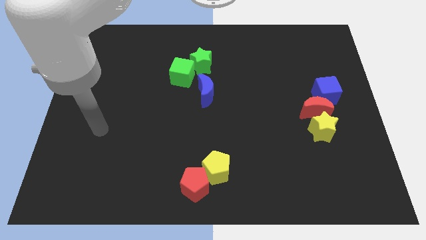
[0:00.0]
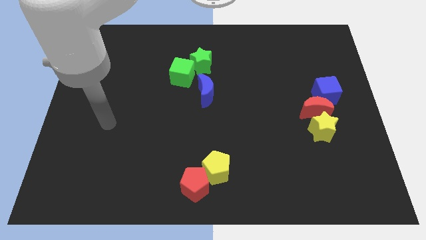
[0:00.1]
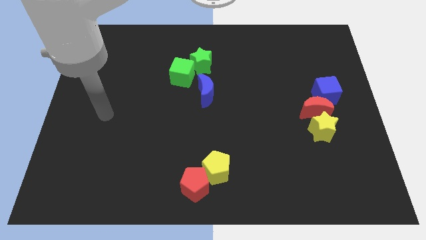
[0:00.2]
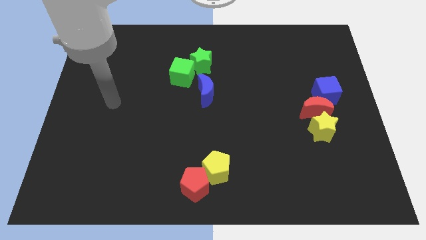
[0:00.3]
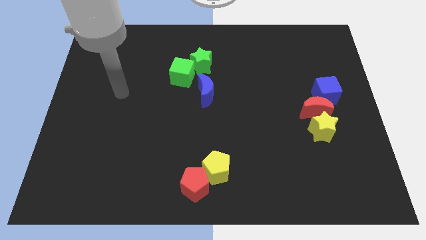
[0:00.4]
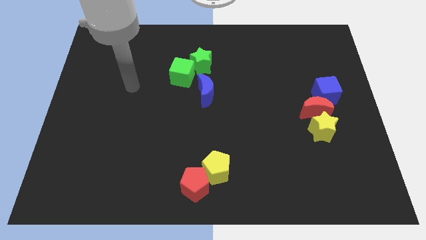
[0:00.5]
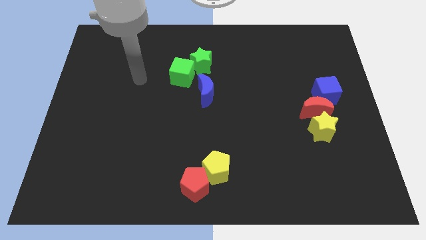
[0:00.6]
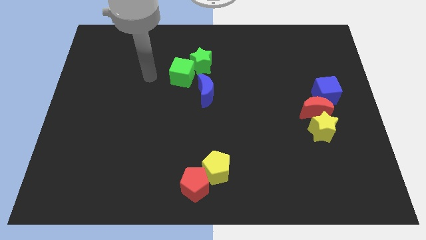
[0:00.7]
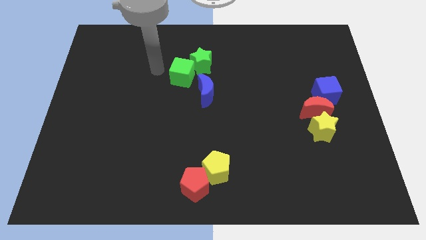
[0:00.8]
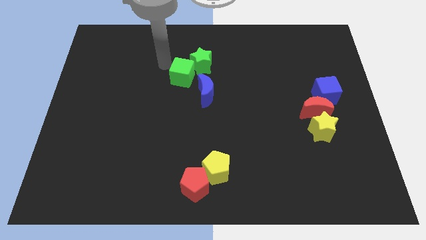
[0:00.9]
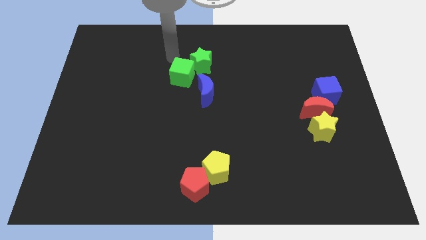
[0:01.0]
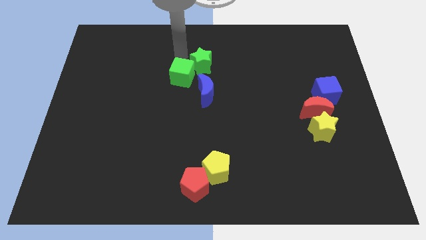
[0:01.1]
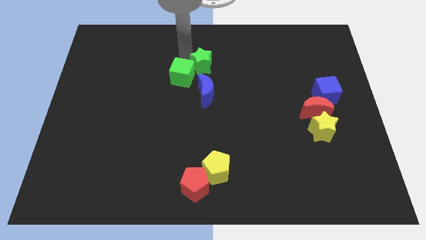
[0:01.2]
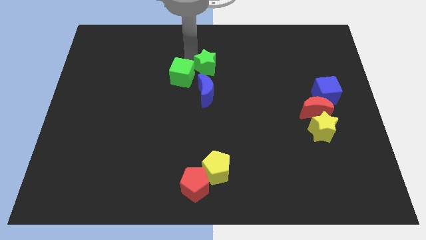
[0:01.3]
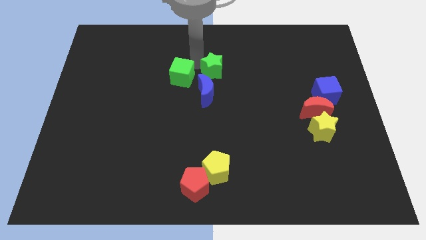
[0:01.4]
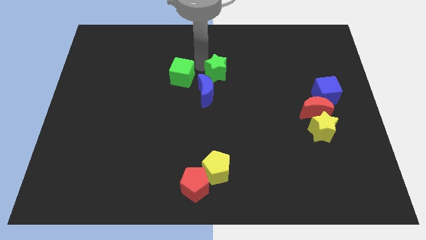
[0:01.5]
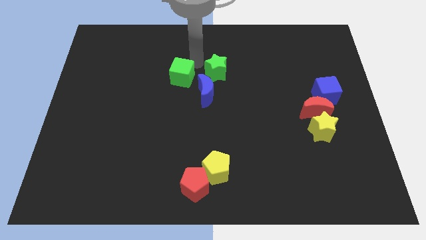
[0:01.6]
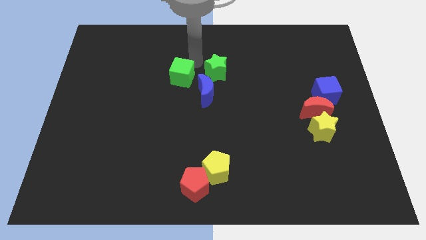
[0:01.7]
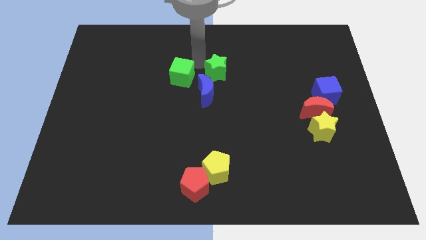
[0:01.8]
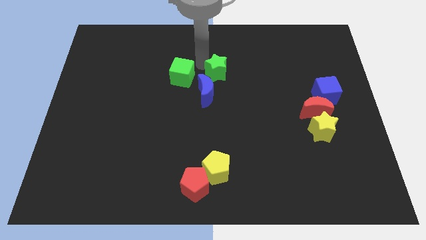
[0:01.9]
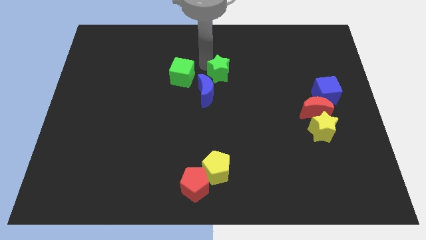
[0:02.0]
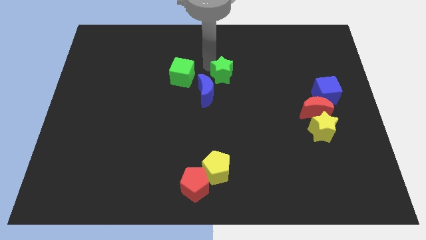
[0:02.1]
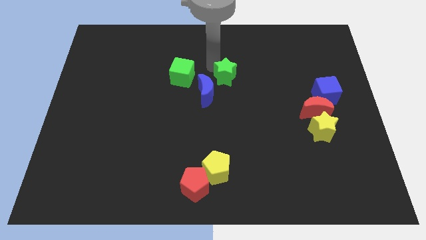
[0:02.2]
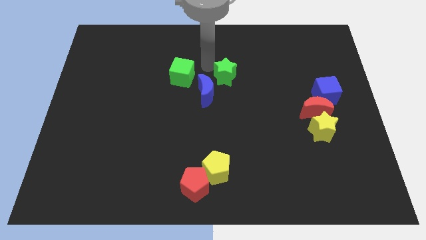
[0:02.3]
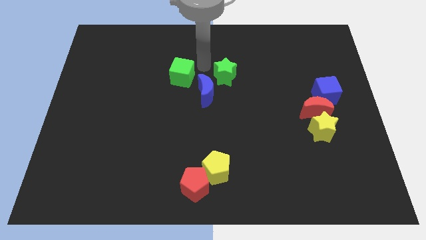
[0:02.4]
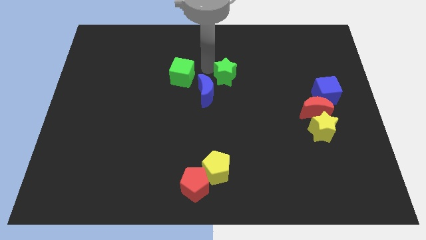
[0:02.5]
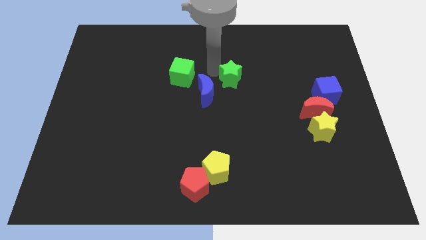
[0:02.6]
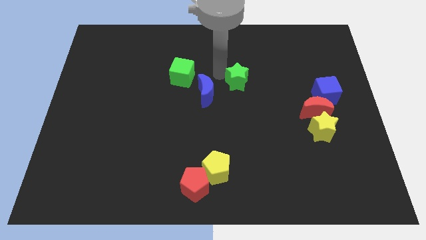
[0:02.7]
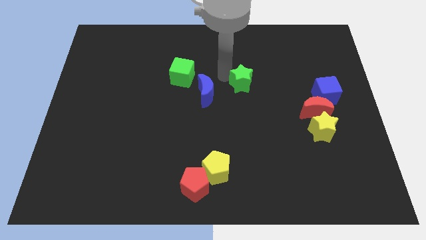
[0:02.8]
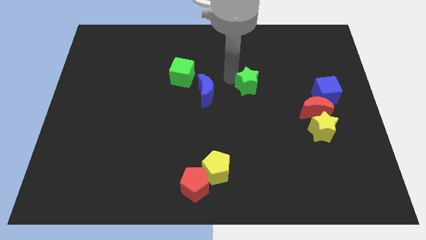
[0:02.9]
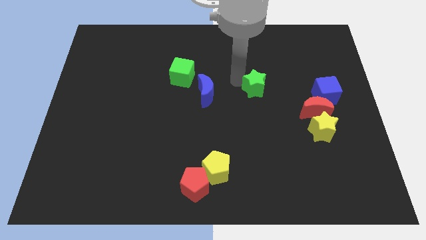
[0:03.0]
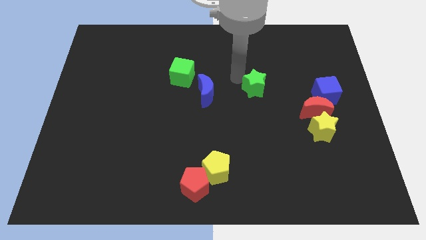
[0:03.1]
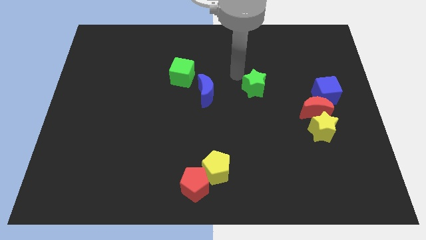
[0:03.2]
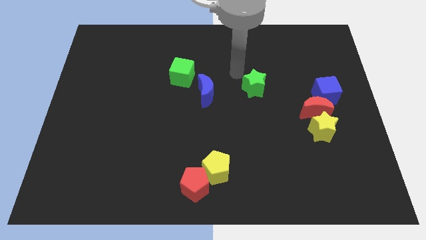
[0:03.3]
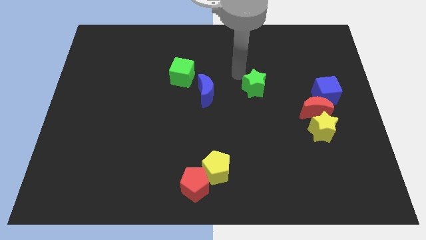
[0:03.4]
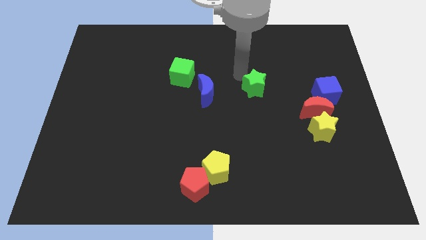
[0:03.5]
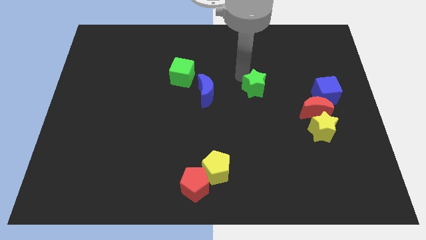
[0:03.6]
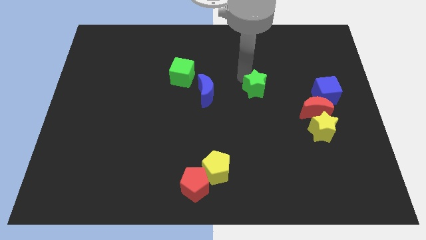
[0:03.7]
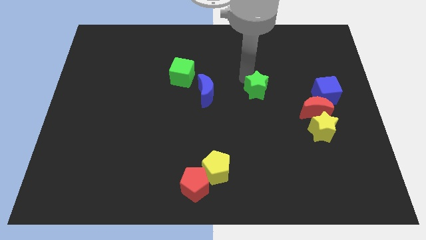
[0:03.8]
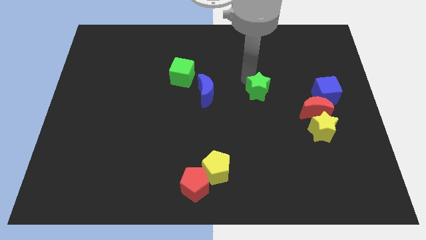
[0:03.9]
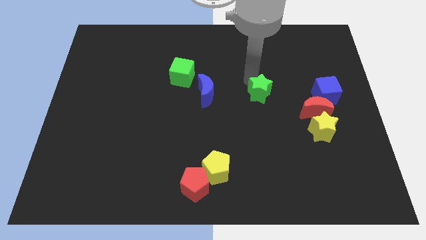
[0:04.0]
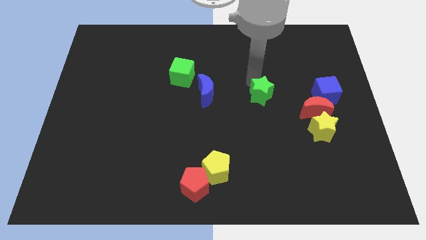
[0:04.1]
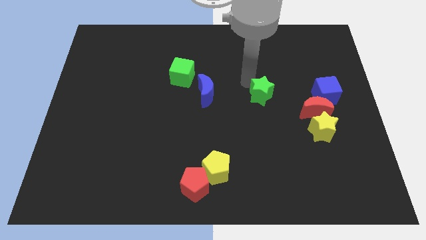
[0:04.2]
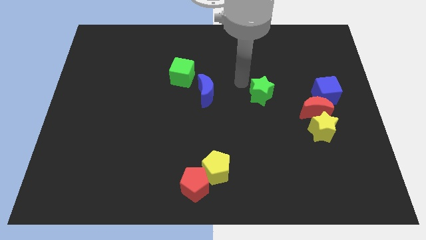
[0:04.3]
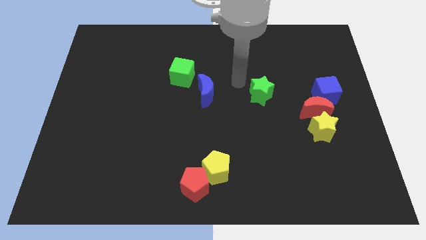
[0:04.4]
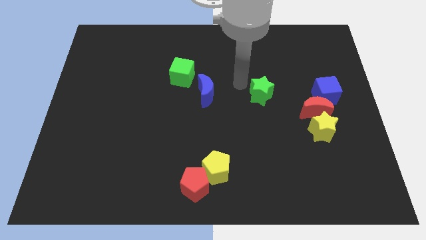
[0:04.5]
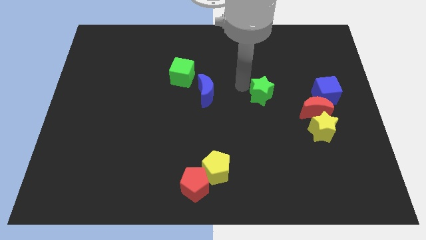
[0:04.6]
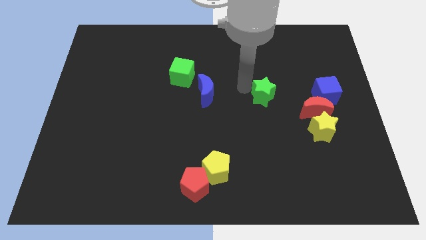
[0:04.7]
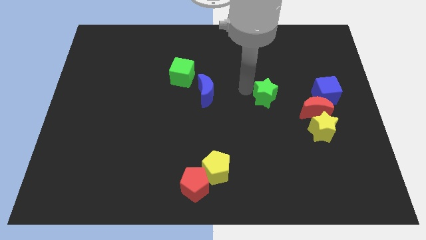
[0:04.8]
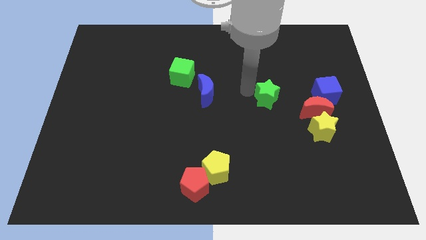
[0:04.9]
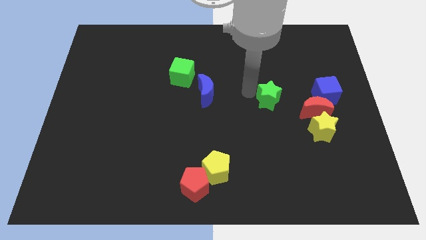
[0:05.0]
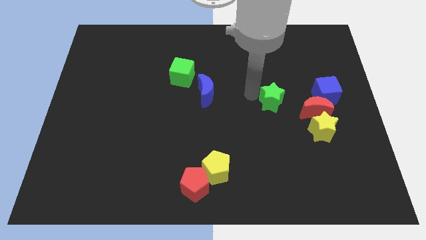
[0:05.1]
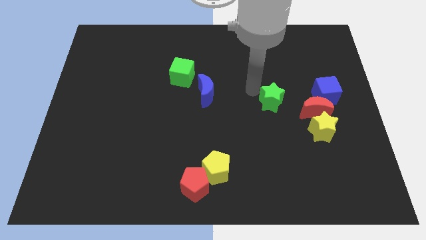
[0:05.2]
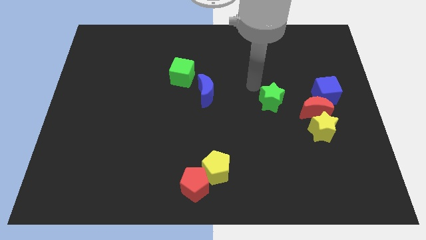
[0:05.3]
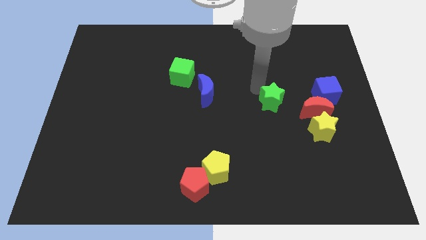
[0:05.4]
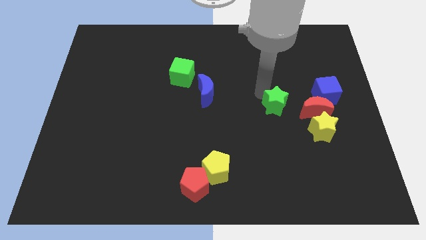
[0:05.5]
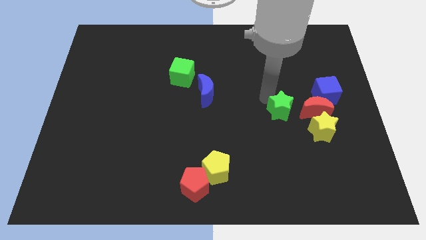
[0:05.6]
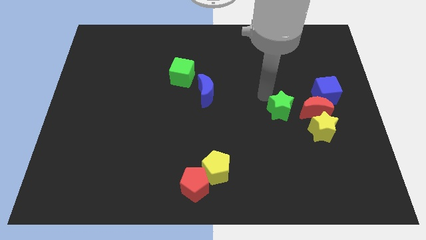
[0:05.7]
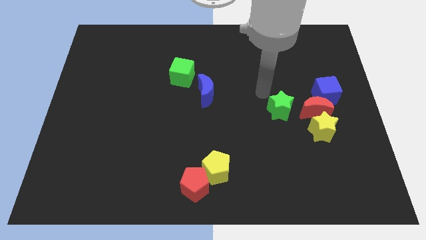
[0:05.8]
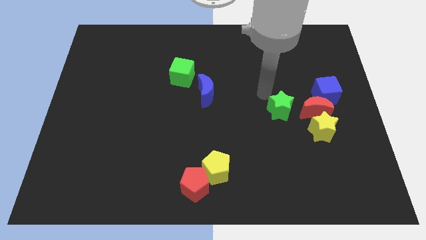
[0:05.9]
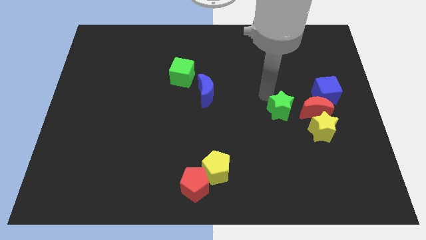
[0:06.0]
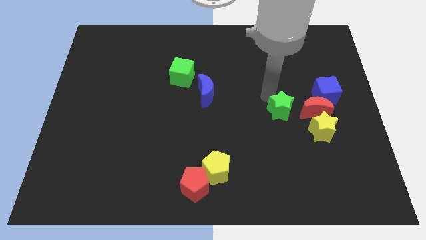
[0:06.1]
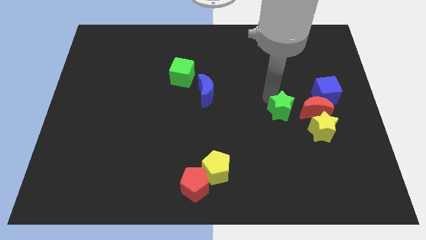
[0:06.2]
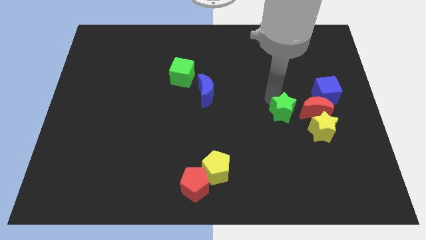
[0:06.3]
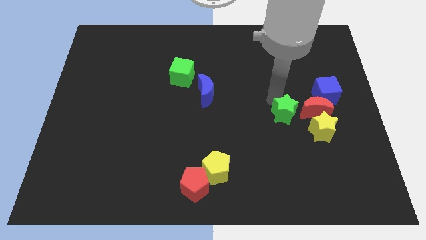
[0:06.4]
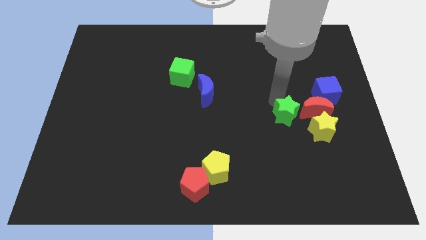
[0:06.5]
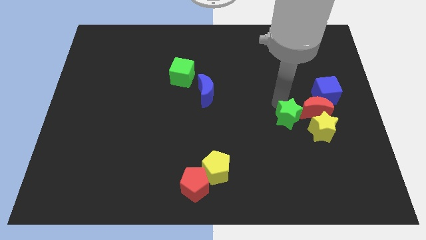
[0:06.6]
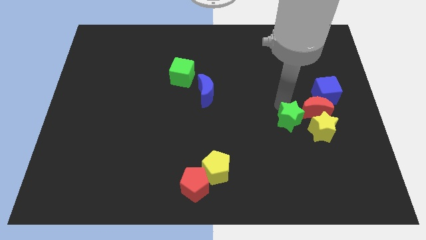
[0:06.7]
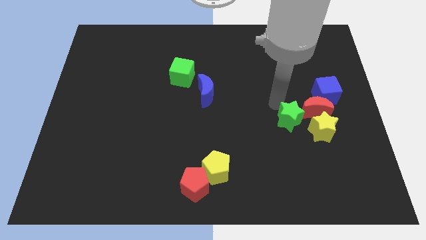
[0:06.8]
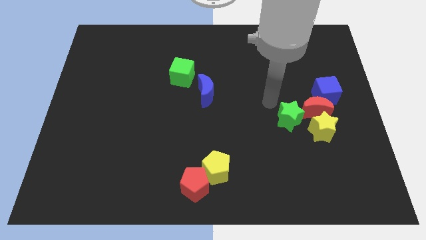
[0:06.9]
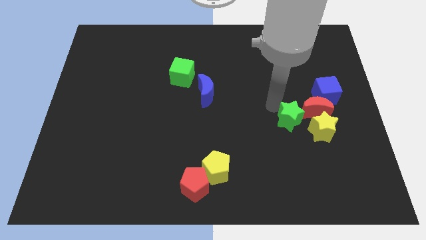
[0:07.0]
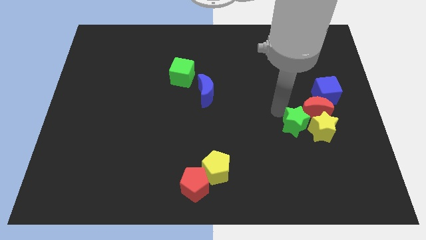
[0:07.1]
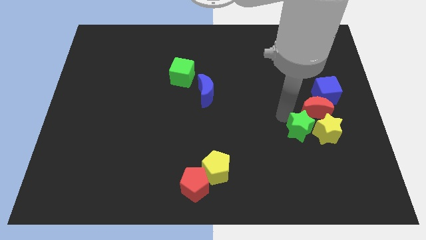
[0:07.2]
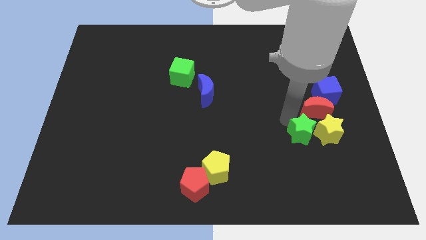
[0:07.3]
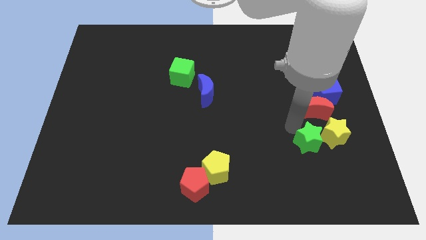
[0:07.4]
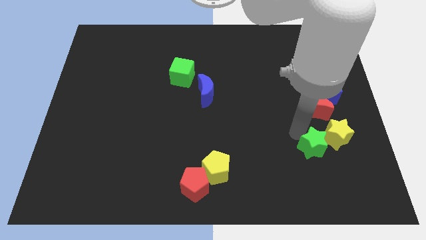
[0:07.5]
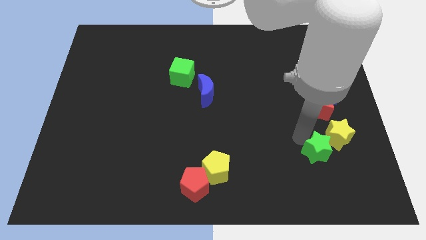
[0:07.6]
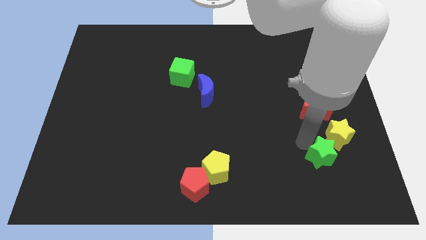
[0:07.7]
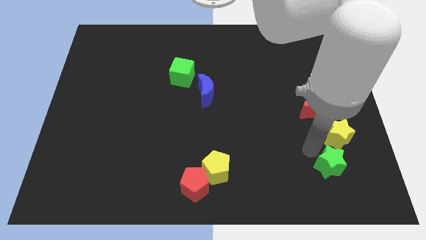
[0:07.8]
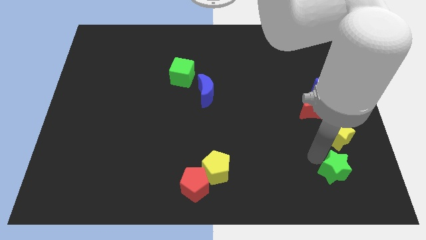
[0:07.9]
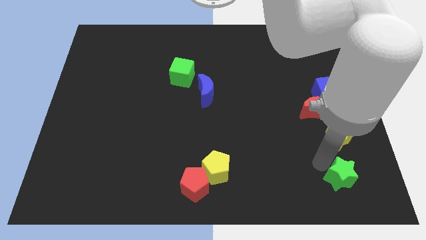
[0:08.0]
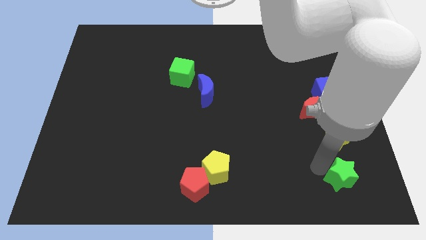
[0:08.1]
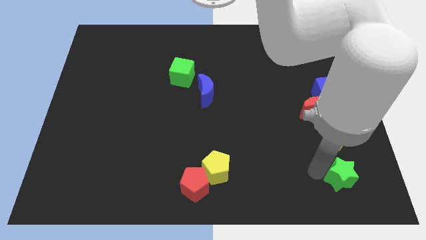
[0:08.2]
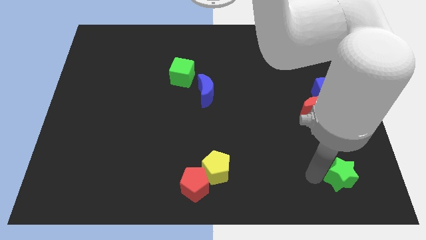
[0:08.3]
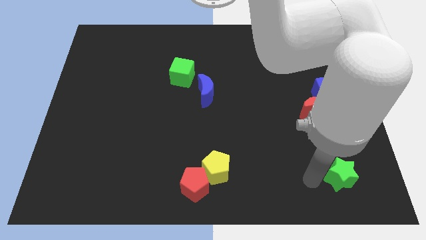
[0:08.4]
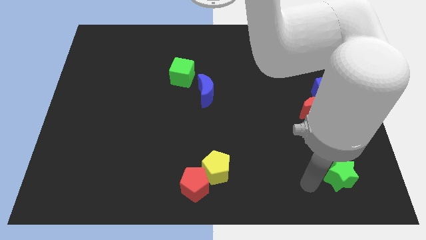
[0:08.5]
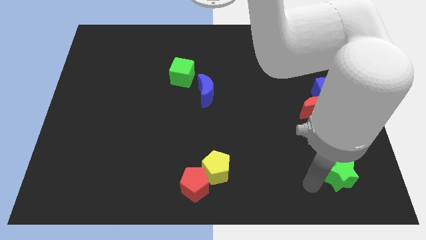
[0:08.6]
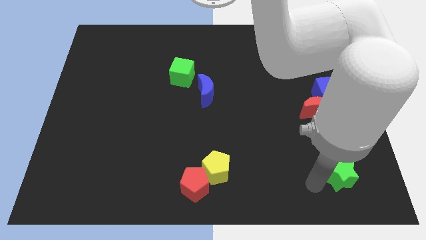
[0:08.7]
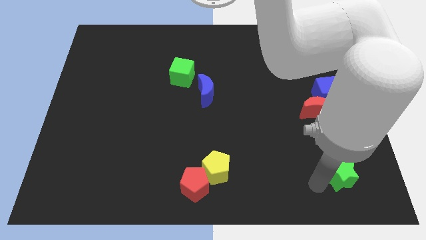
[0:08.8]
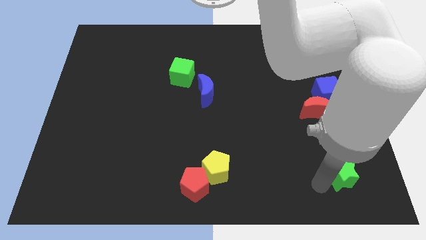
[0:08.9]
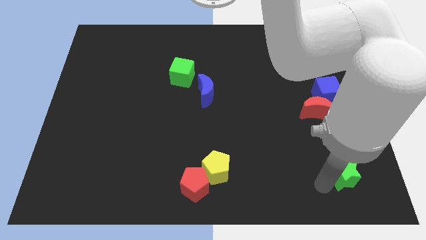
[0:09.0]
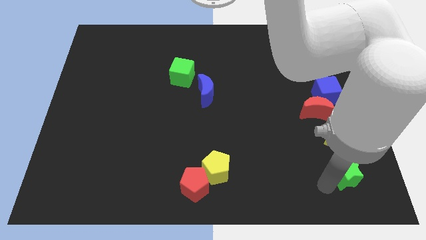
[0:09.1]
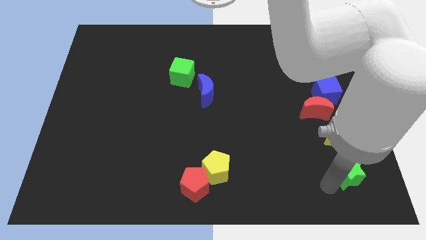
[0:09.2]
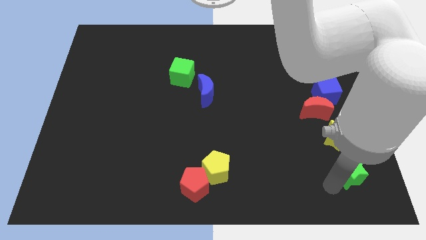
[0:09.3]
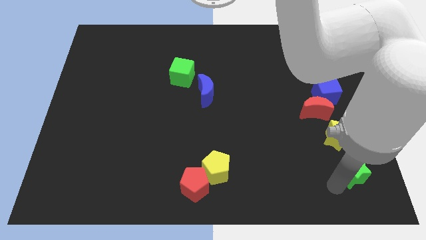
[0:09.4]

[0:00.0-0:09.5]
move the green star to the lower right corner
